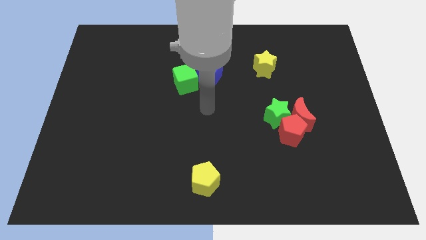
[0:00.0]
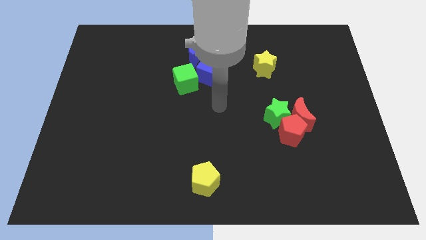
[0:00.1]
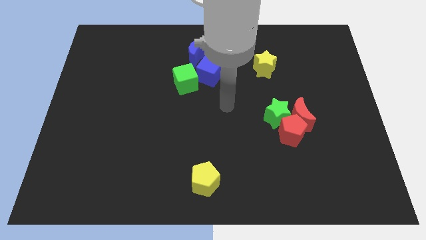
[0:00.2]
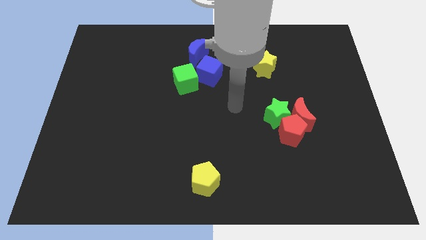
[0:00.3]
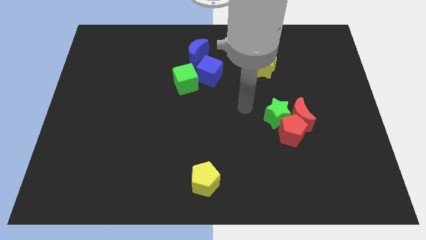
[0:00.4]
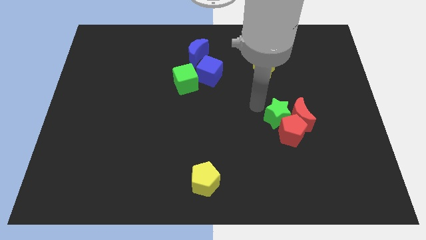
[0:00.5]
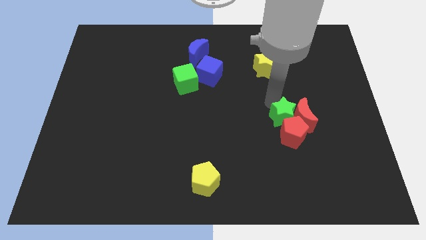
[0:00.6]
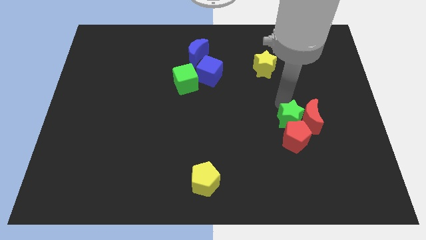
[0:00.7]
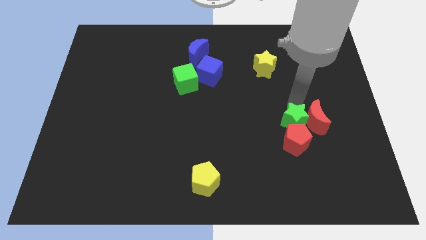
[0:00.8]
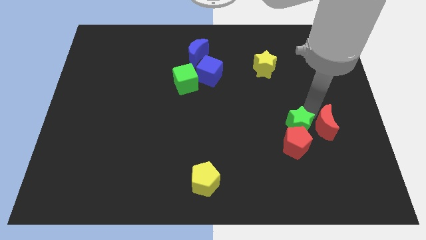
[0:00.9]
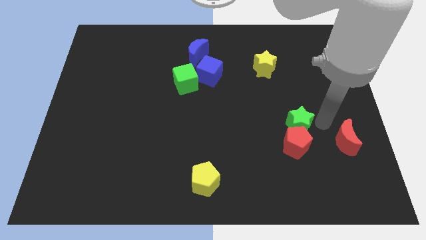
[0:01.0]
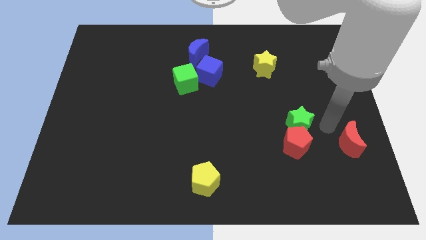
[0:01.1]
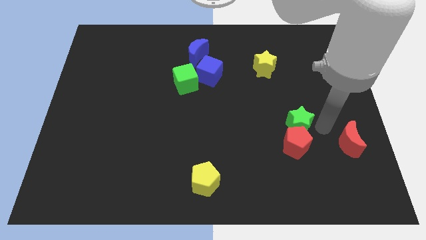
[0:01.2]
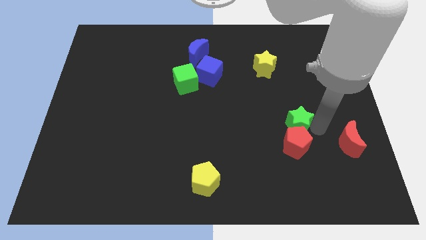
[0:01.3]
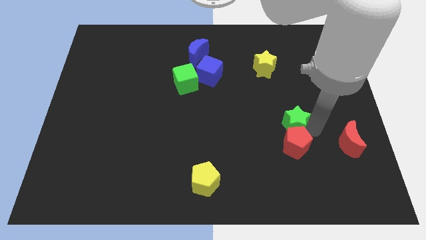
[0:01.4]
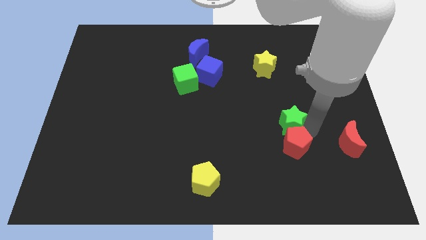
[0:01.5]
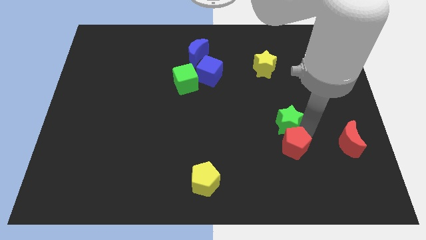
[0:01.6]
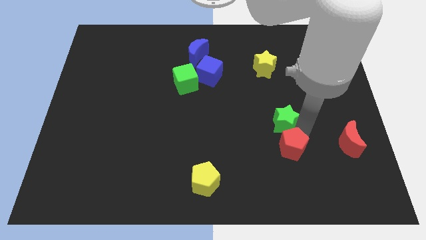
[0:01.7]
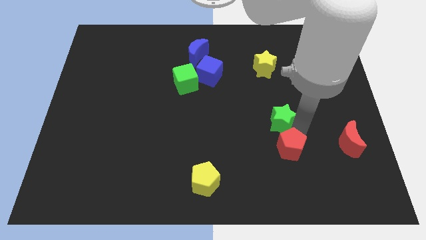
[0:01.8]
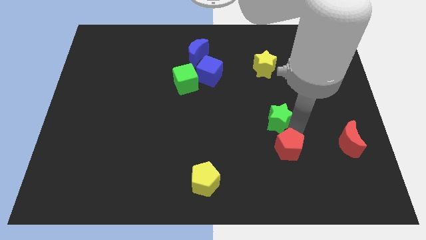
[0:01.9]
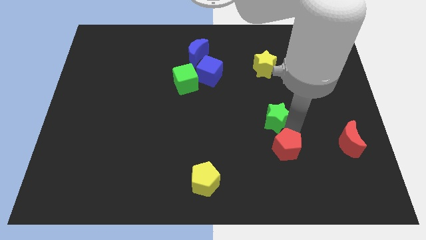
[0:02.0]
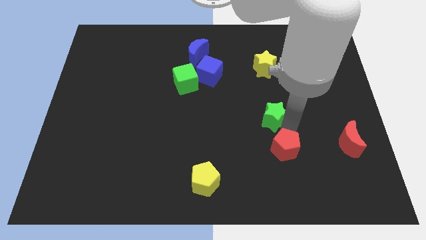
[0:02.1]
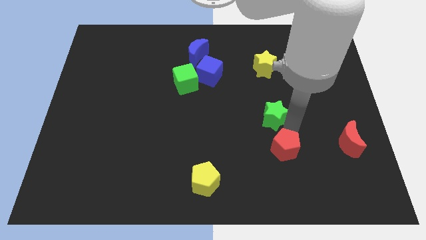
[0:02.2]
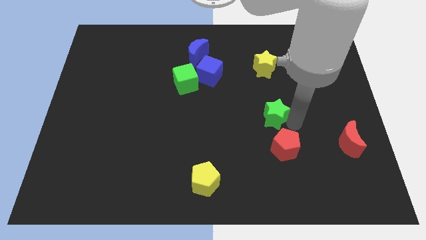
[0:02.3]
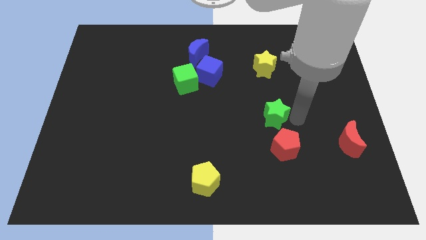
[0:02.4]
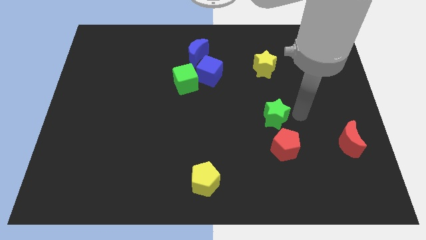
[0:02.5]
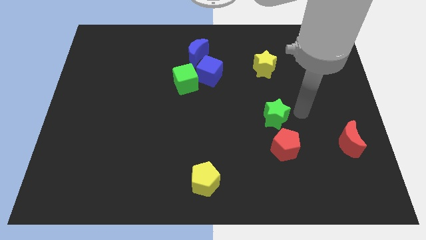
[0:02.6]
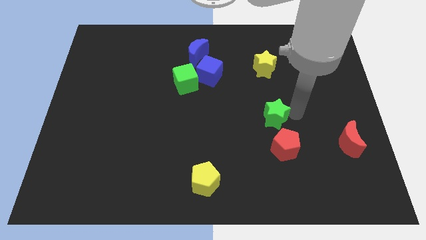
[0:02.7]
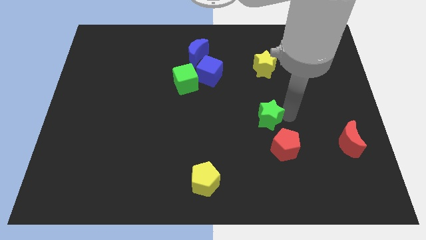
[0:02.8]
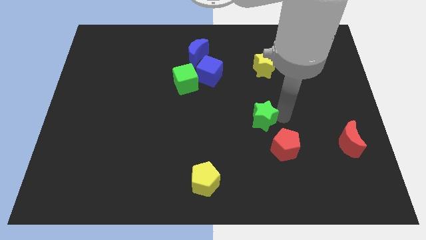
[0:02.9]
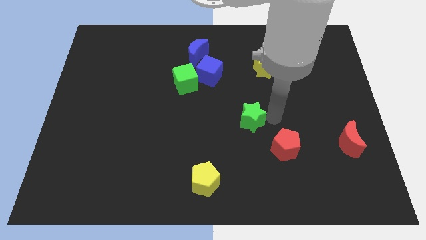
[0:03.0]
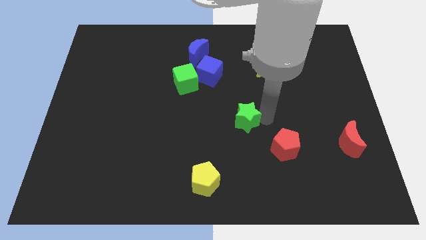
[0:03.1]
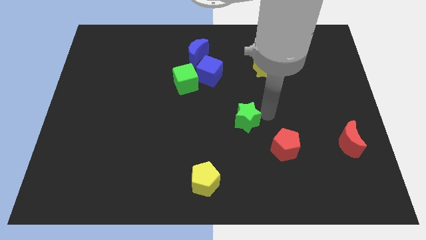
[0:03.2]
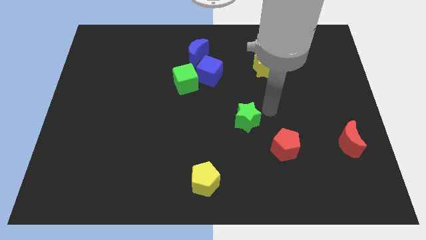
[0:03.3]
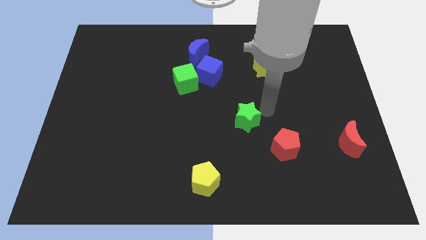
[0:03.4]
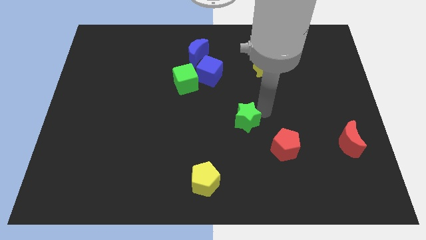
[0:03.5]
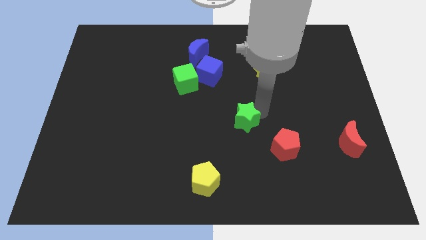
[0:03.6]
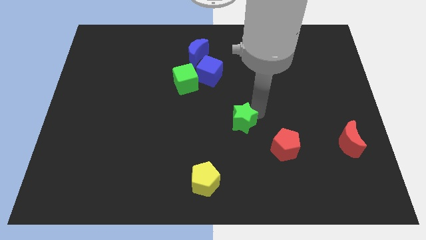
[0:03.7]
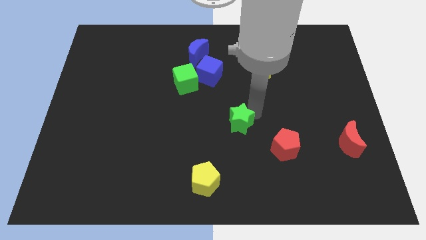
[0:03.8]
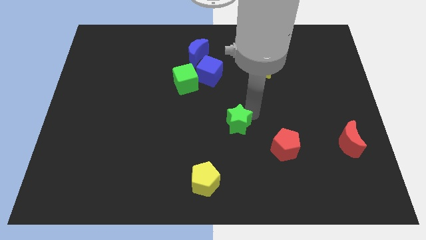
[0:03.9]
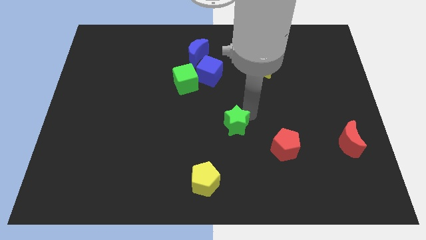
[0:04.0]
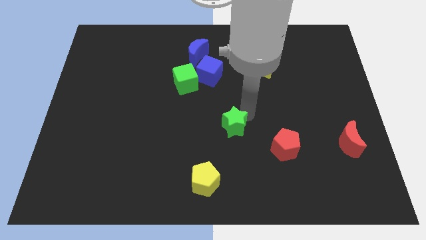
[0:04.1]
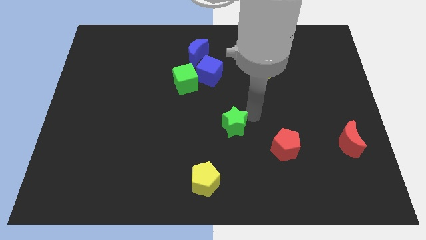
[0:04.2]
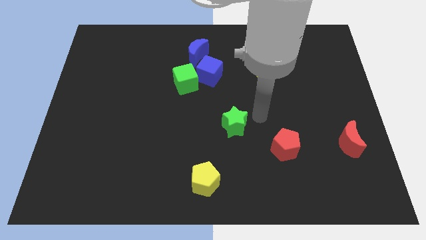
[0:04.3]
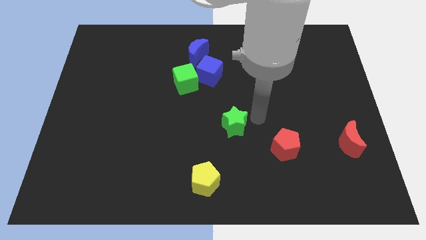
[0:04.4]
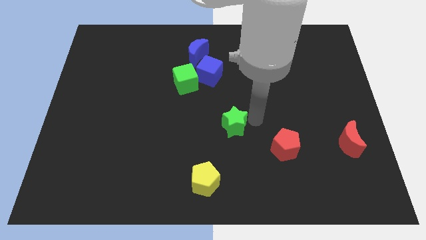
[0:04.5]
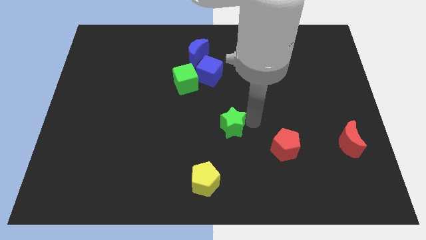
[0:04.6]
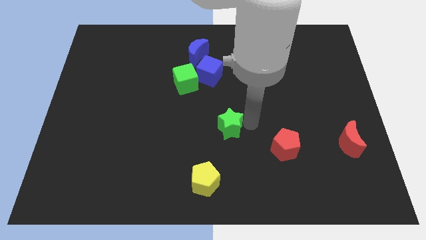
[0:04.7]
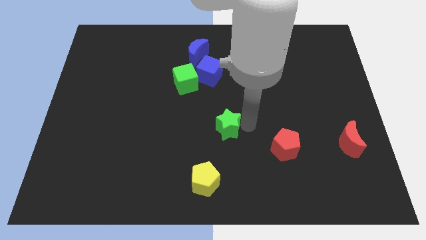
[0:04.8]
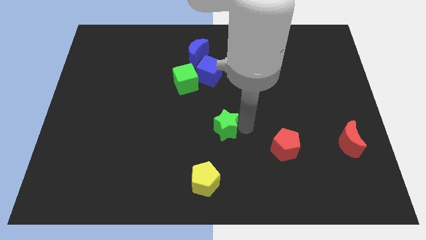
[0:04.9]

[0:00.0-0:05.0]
put the green star to the top of the yellow pentagon

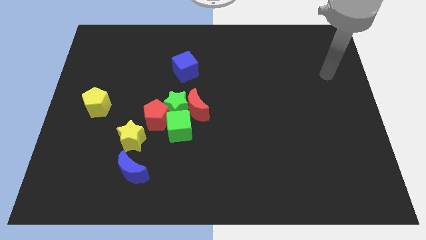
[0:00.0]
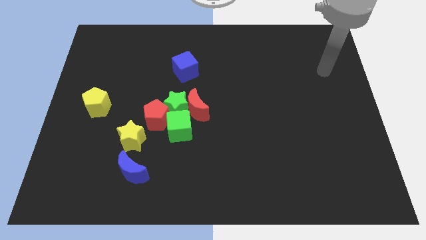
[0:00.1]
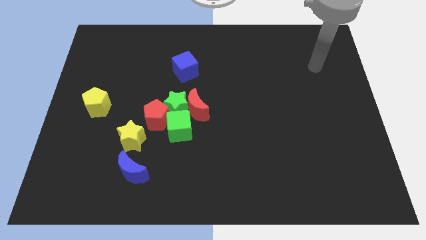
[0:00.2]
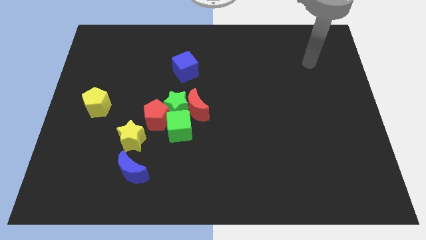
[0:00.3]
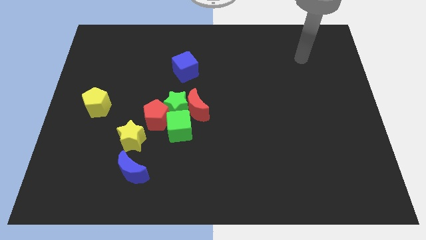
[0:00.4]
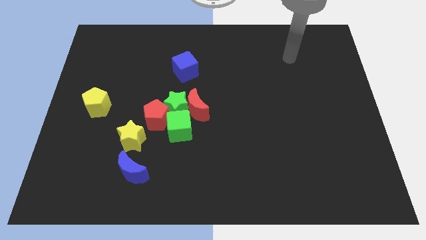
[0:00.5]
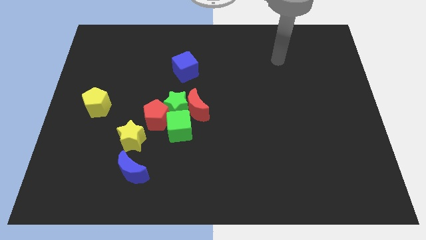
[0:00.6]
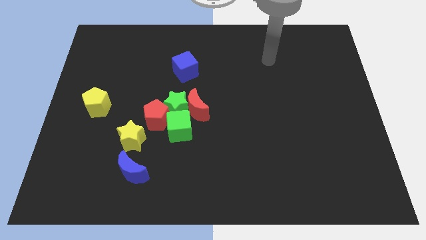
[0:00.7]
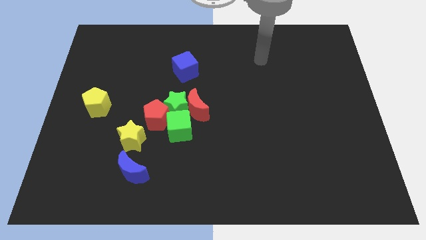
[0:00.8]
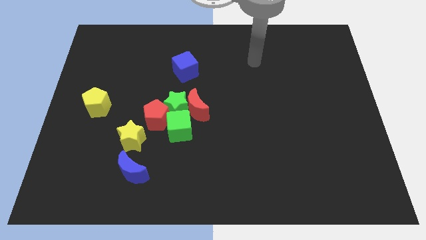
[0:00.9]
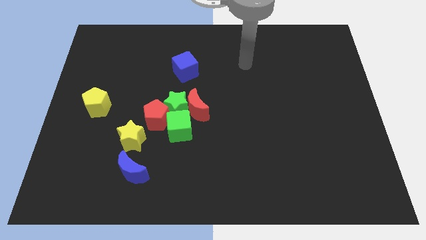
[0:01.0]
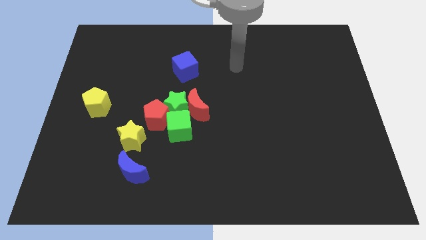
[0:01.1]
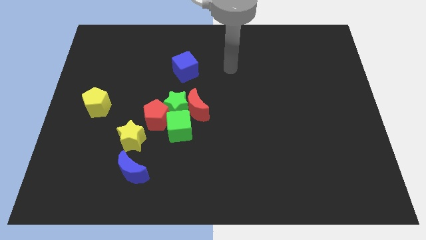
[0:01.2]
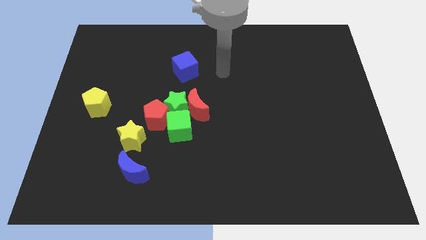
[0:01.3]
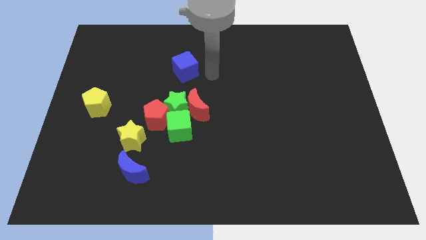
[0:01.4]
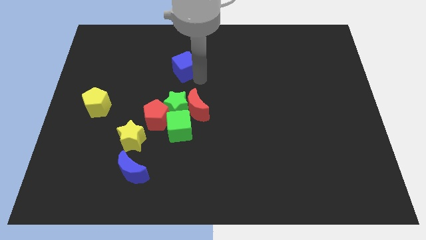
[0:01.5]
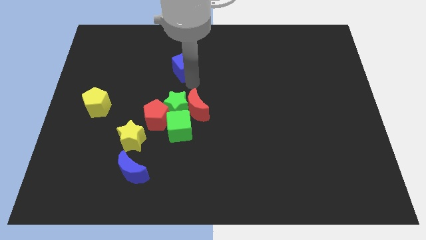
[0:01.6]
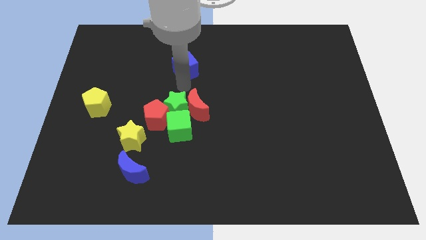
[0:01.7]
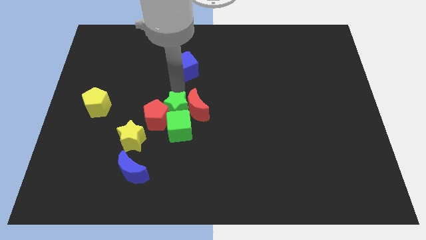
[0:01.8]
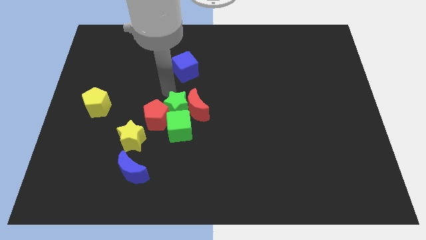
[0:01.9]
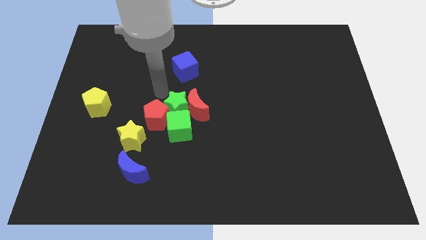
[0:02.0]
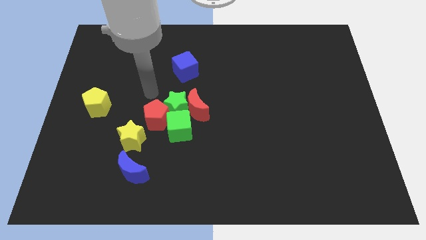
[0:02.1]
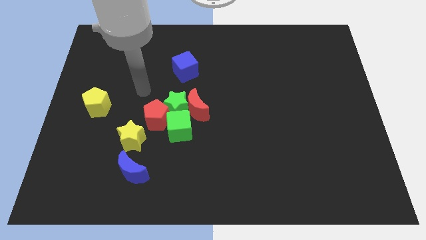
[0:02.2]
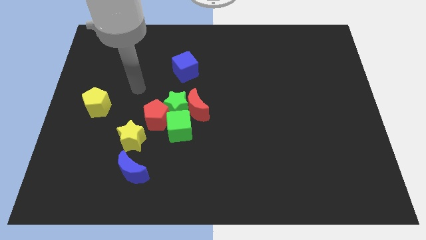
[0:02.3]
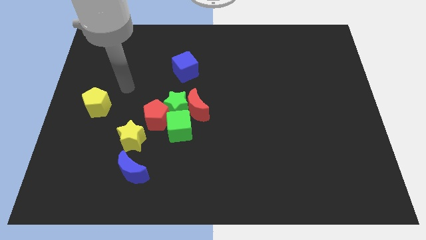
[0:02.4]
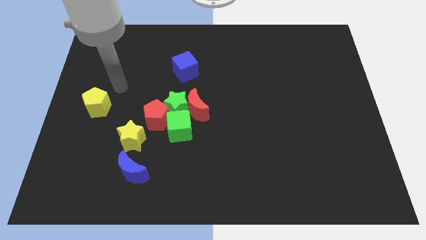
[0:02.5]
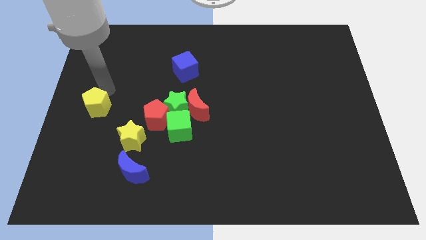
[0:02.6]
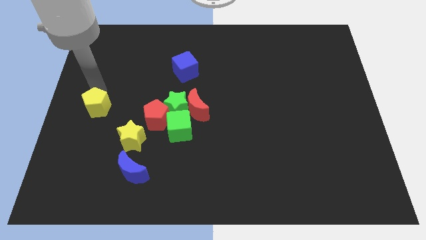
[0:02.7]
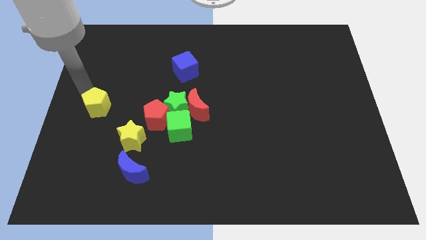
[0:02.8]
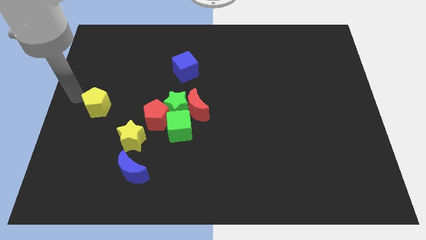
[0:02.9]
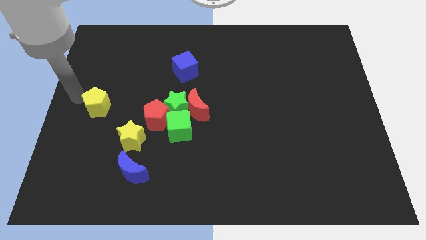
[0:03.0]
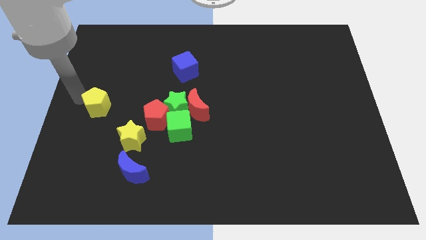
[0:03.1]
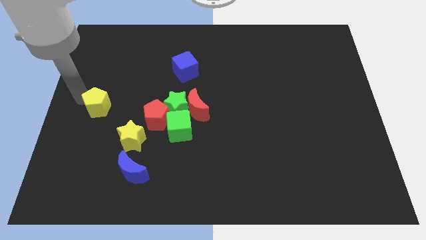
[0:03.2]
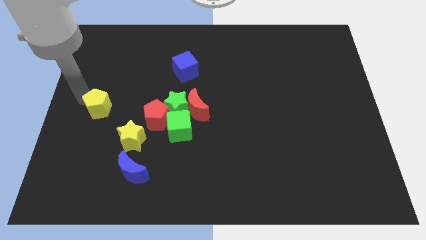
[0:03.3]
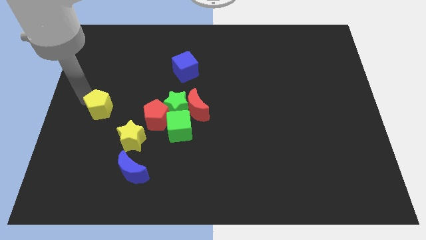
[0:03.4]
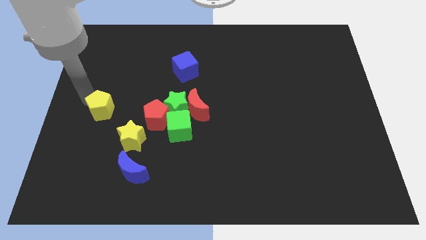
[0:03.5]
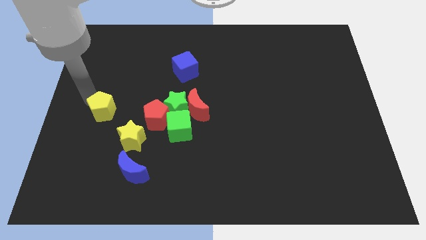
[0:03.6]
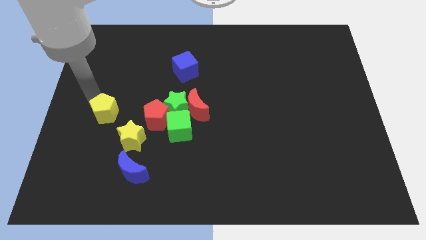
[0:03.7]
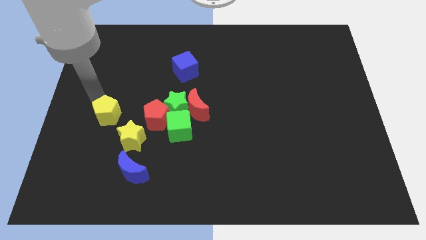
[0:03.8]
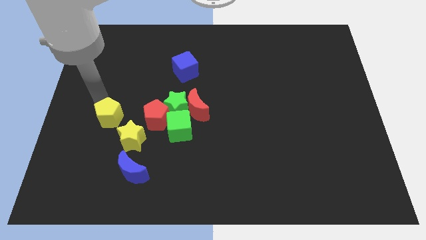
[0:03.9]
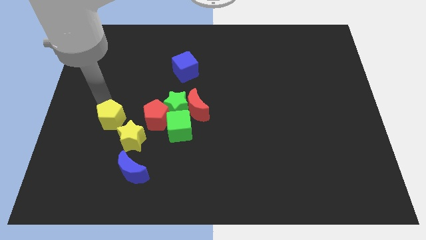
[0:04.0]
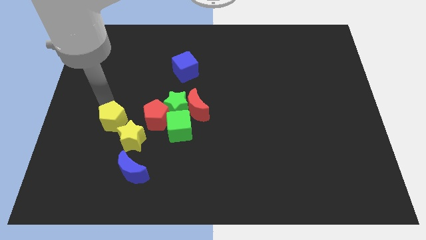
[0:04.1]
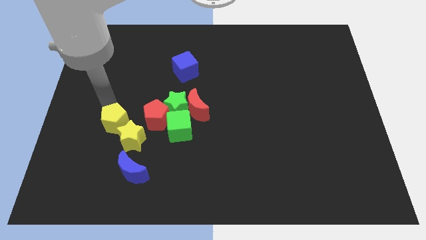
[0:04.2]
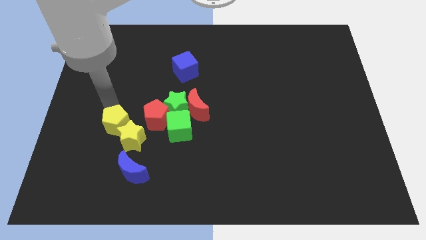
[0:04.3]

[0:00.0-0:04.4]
put the yellow pentagon to the top of the blue moon
